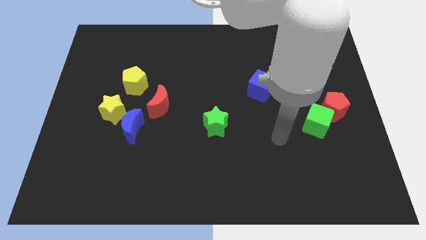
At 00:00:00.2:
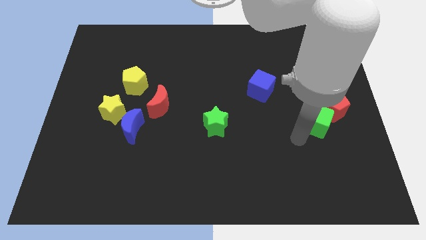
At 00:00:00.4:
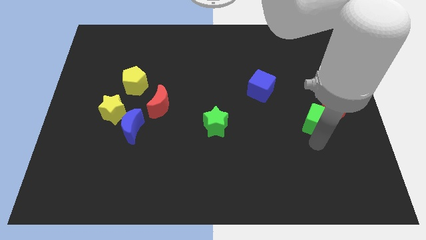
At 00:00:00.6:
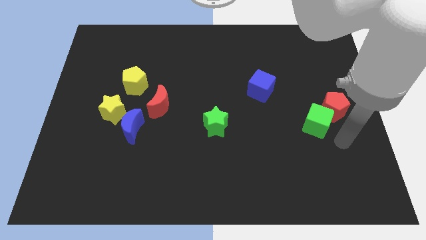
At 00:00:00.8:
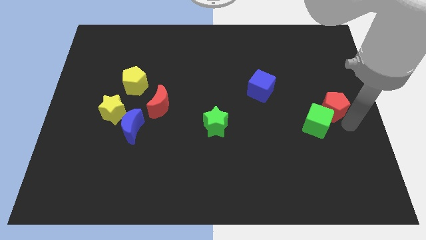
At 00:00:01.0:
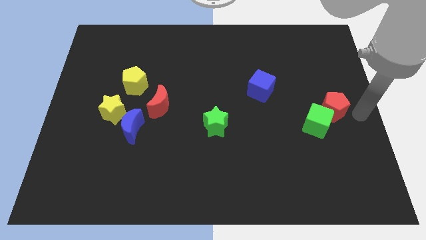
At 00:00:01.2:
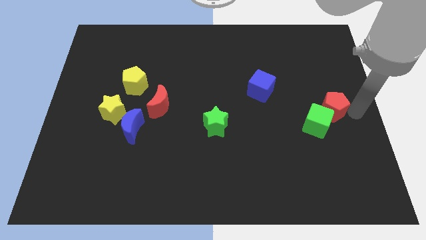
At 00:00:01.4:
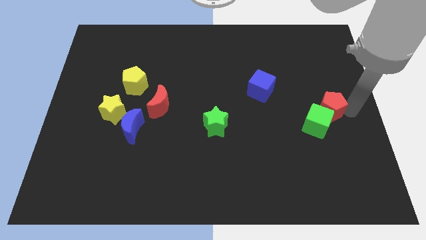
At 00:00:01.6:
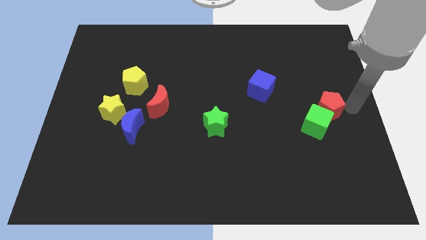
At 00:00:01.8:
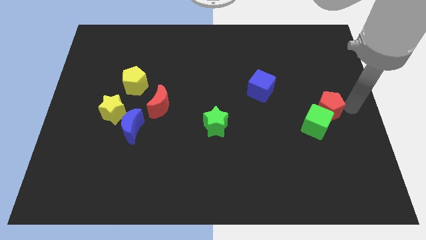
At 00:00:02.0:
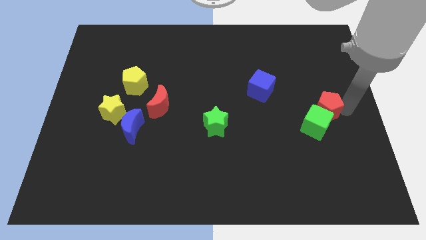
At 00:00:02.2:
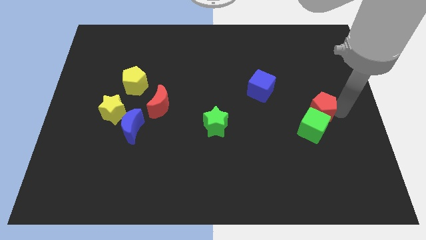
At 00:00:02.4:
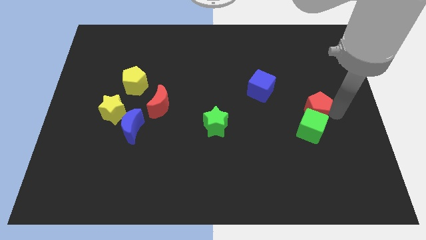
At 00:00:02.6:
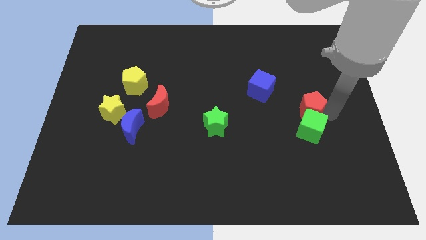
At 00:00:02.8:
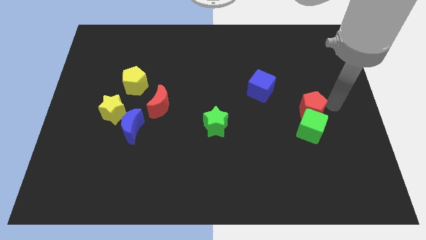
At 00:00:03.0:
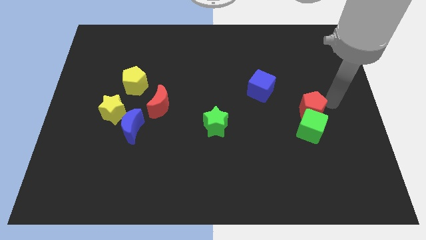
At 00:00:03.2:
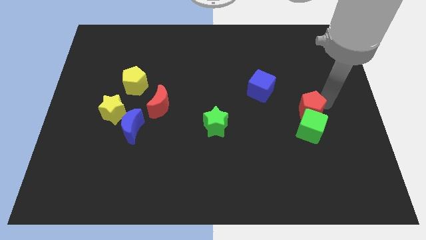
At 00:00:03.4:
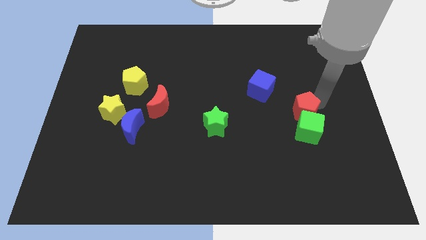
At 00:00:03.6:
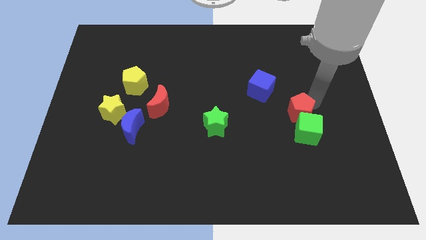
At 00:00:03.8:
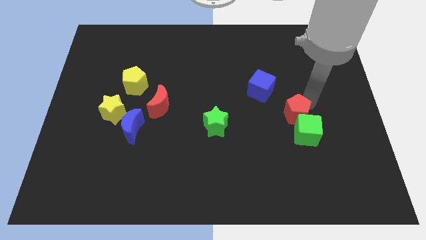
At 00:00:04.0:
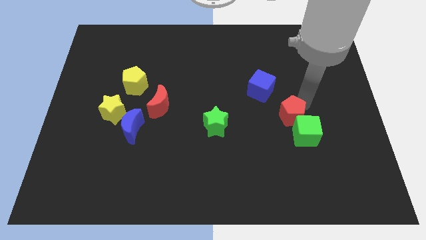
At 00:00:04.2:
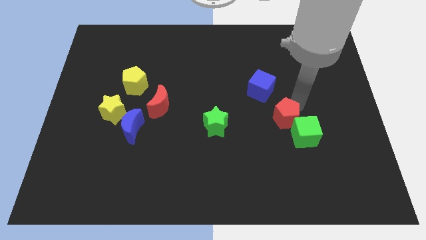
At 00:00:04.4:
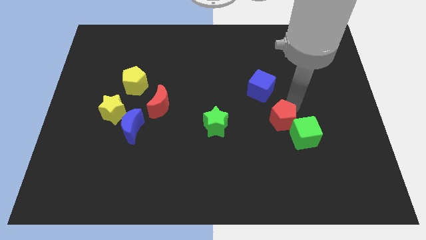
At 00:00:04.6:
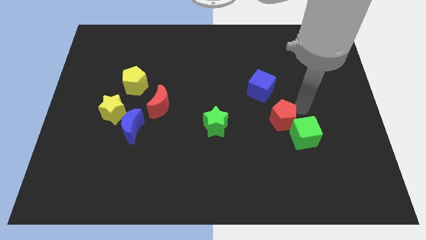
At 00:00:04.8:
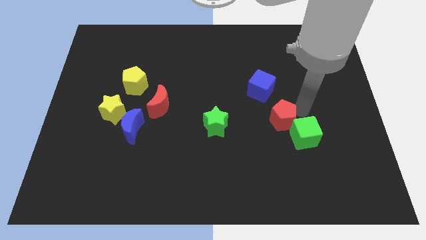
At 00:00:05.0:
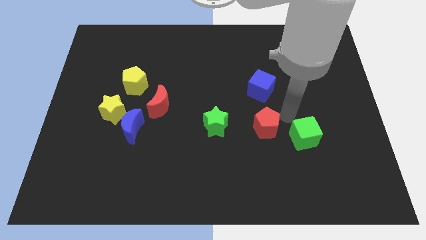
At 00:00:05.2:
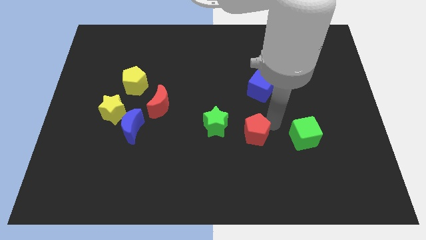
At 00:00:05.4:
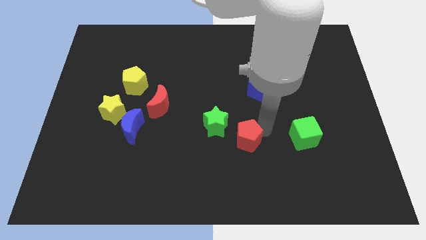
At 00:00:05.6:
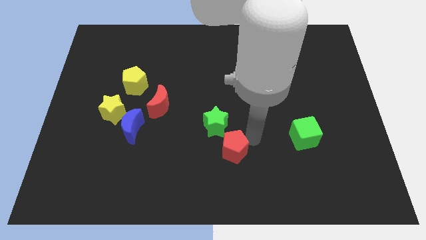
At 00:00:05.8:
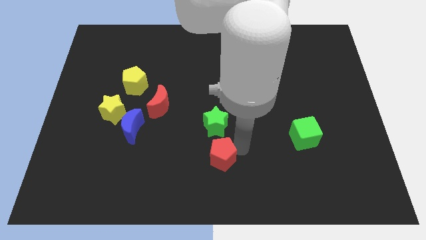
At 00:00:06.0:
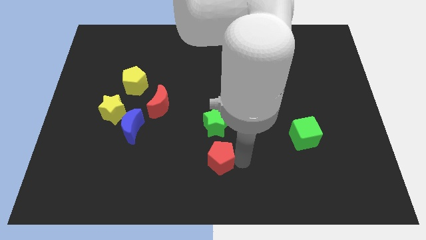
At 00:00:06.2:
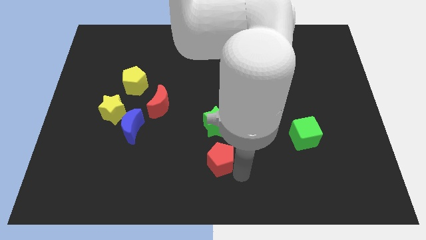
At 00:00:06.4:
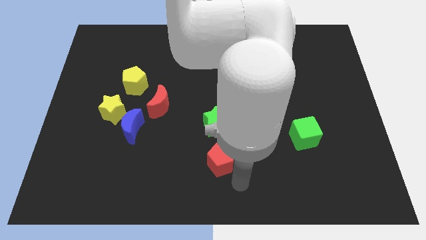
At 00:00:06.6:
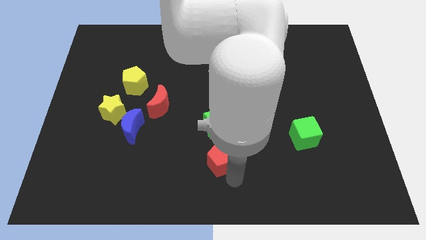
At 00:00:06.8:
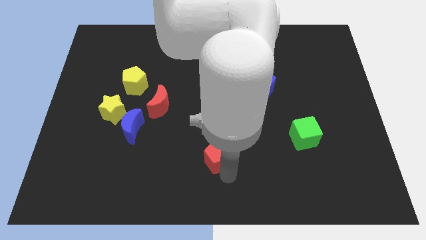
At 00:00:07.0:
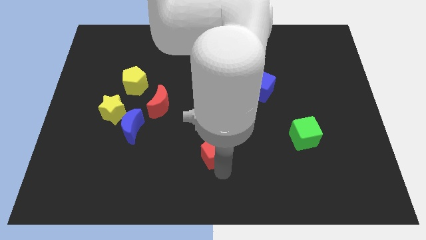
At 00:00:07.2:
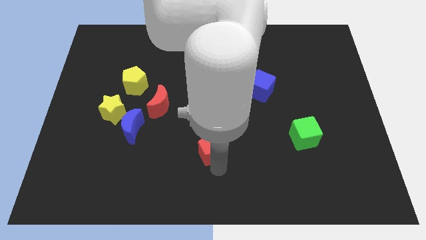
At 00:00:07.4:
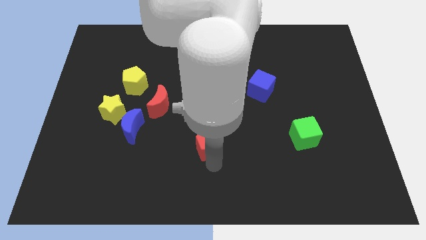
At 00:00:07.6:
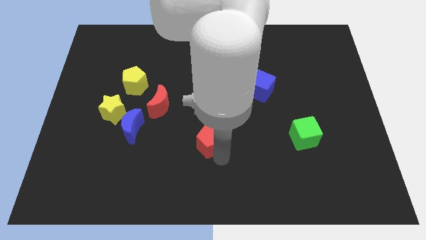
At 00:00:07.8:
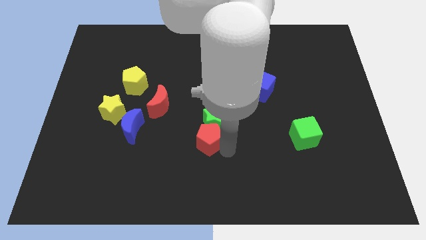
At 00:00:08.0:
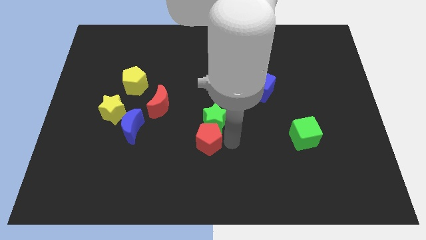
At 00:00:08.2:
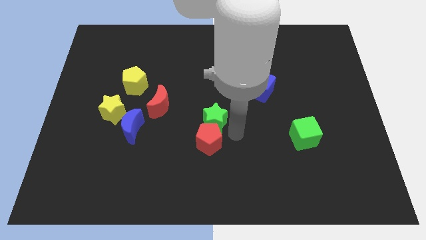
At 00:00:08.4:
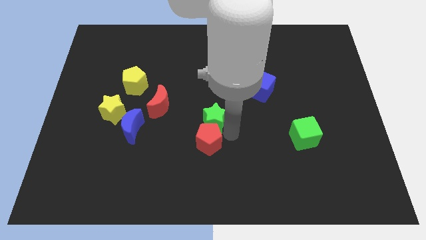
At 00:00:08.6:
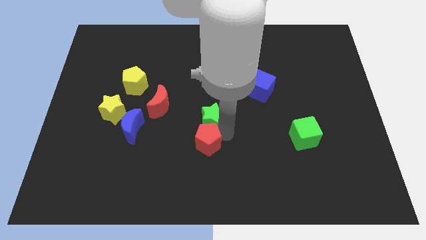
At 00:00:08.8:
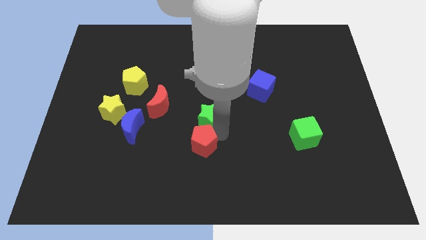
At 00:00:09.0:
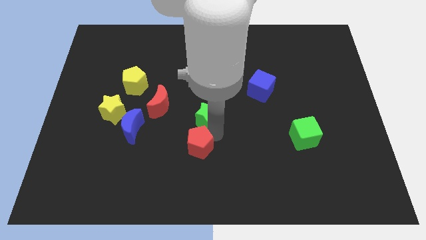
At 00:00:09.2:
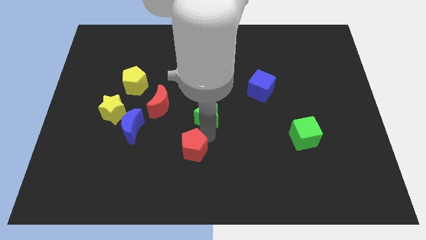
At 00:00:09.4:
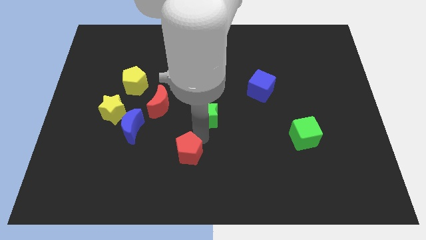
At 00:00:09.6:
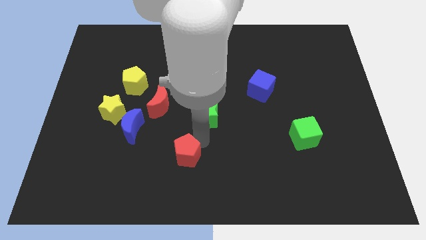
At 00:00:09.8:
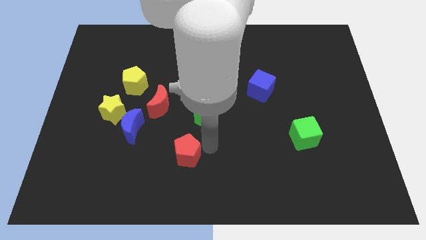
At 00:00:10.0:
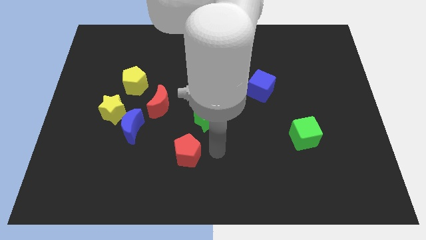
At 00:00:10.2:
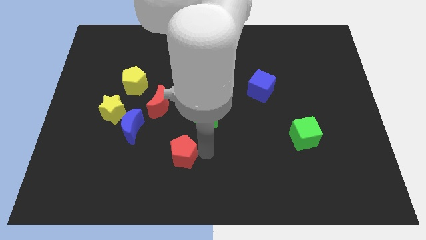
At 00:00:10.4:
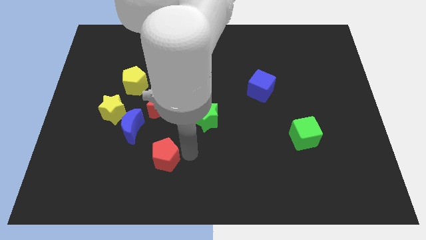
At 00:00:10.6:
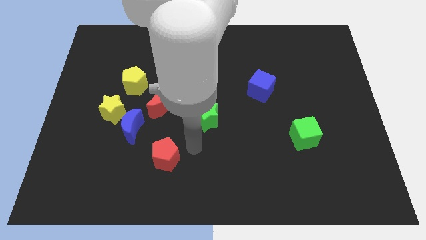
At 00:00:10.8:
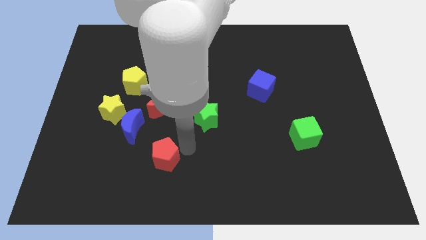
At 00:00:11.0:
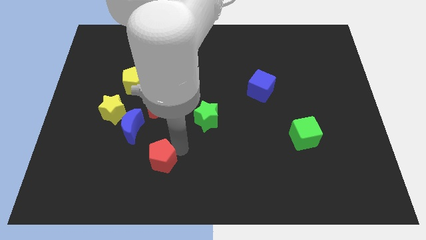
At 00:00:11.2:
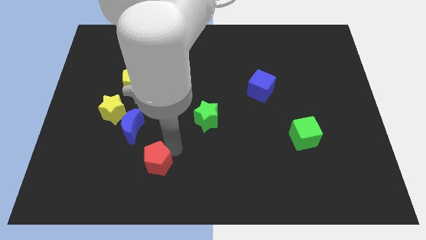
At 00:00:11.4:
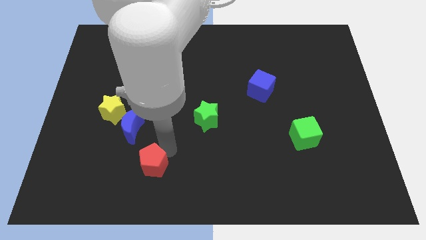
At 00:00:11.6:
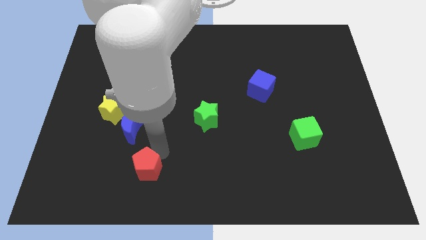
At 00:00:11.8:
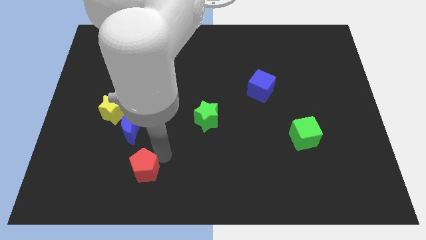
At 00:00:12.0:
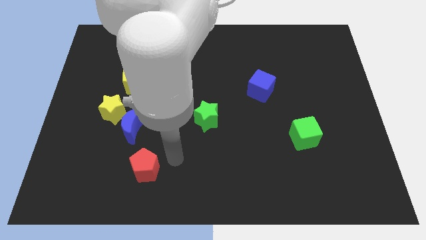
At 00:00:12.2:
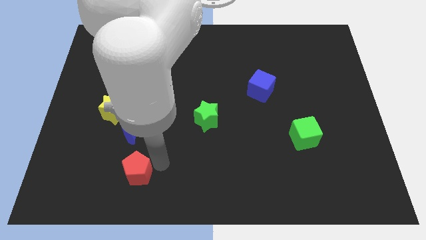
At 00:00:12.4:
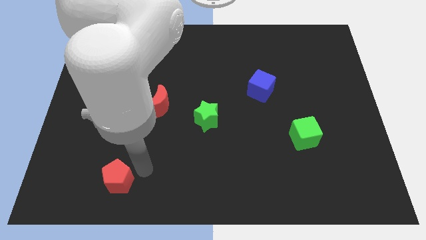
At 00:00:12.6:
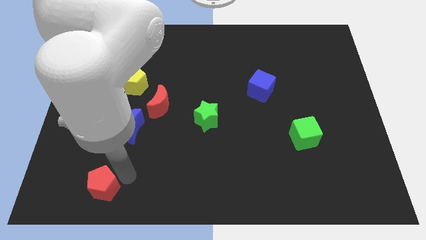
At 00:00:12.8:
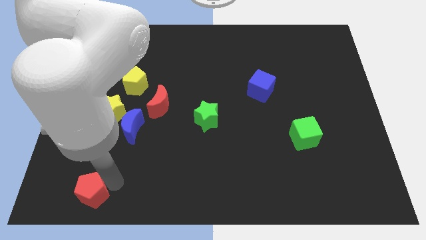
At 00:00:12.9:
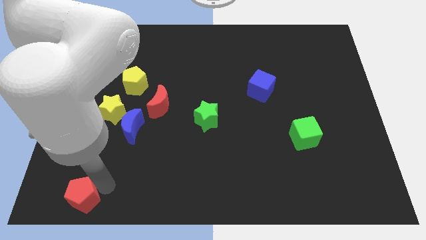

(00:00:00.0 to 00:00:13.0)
put the red pentagon to the bottom left corner

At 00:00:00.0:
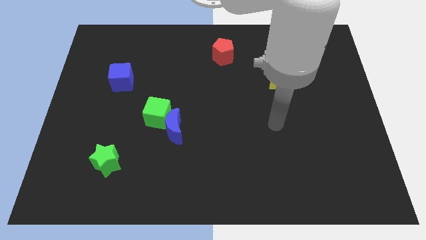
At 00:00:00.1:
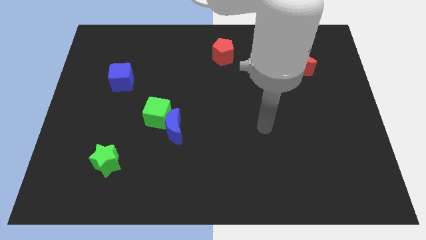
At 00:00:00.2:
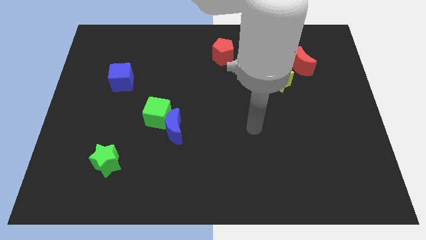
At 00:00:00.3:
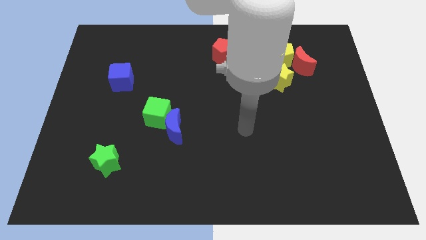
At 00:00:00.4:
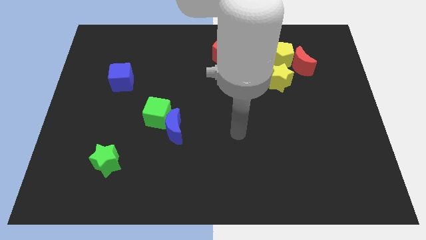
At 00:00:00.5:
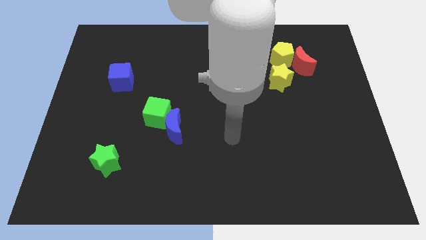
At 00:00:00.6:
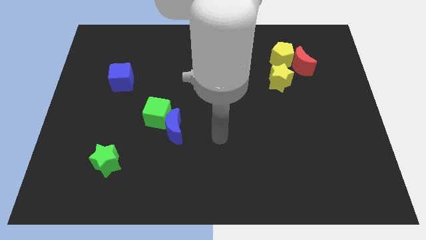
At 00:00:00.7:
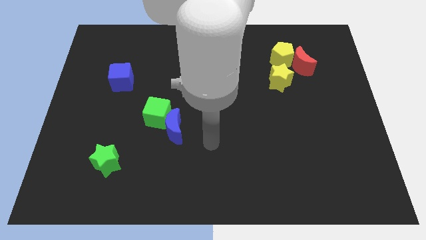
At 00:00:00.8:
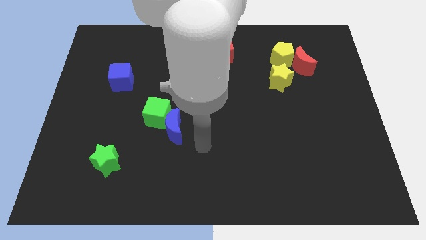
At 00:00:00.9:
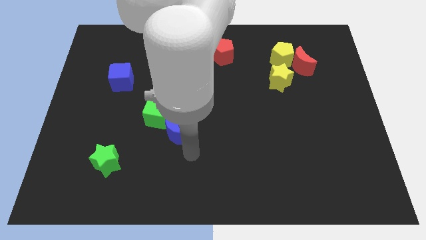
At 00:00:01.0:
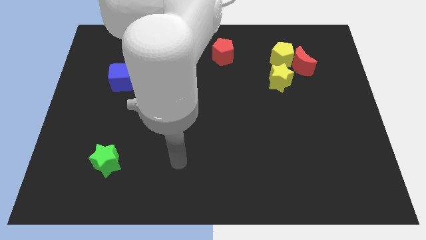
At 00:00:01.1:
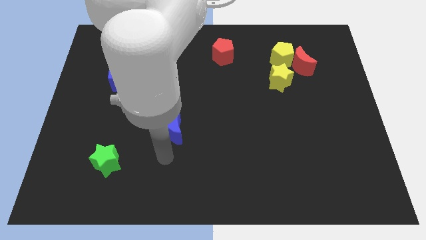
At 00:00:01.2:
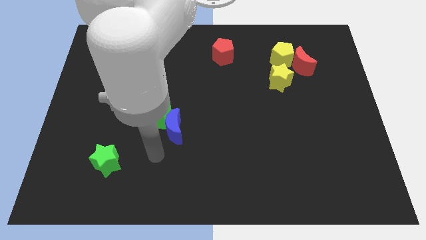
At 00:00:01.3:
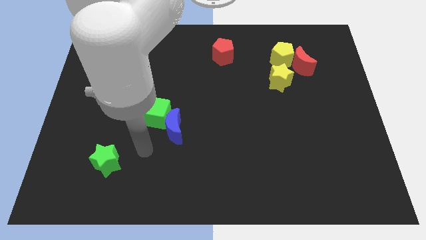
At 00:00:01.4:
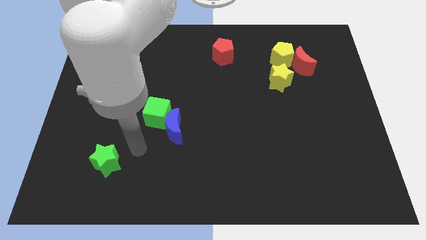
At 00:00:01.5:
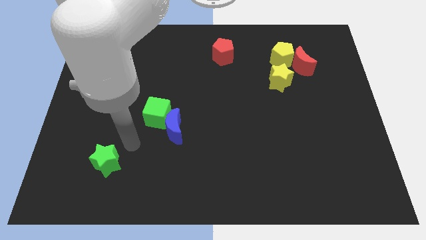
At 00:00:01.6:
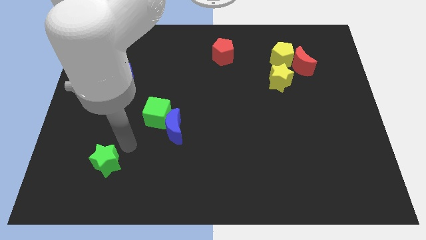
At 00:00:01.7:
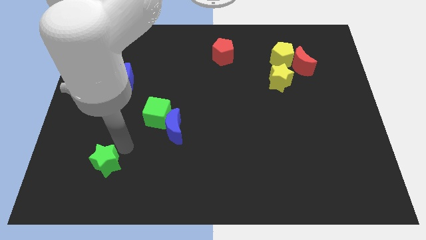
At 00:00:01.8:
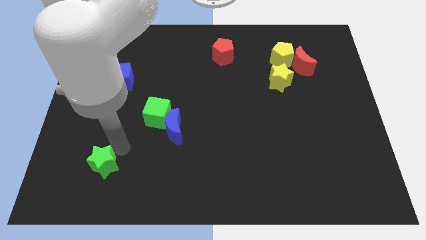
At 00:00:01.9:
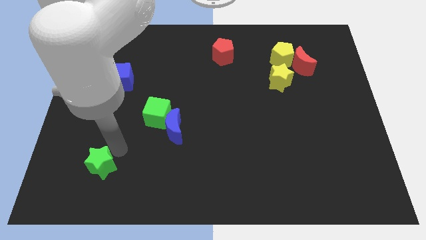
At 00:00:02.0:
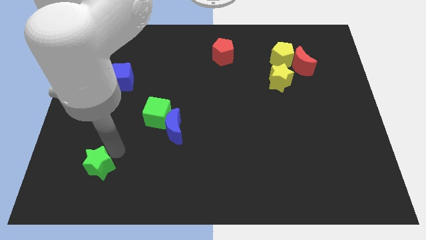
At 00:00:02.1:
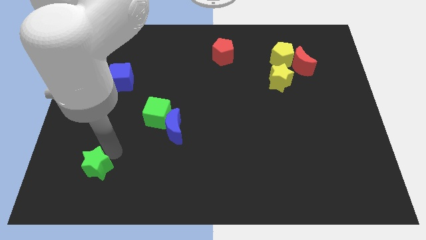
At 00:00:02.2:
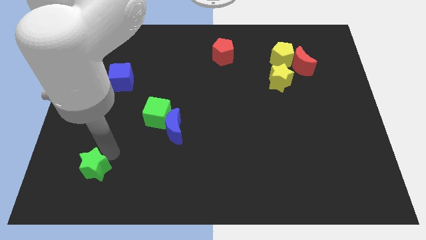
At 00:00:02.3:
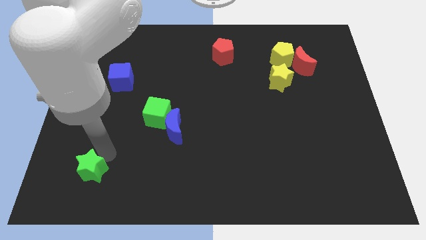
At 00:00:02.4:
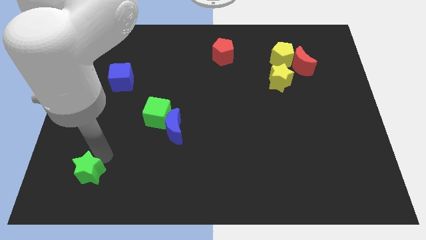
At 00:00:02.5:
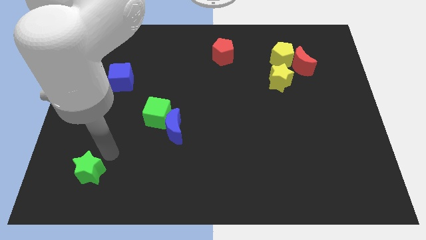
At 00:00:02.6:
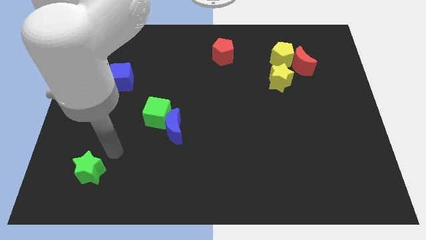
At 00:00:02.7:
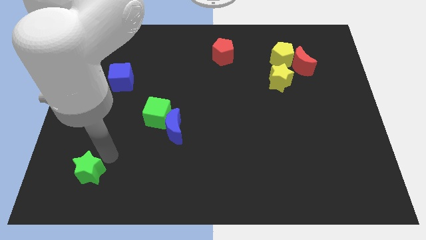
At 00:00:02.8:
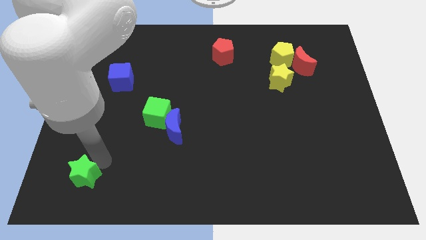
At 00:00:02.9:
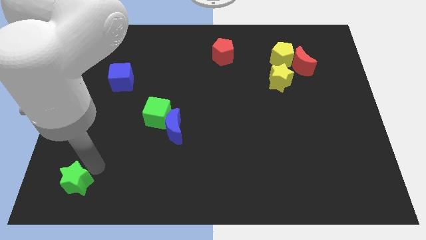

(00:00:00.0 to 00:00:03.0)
move the green star to the lower left corner
